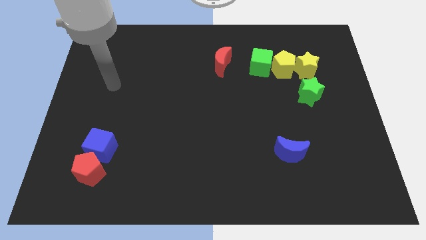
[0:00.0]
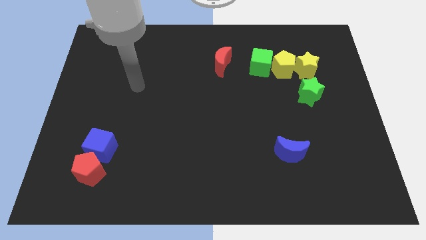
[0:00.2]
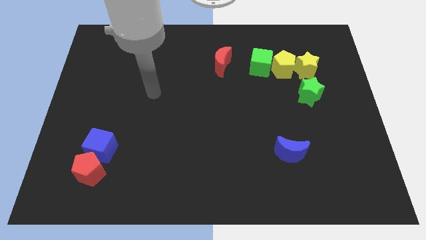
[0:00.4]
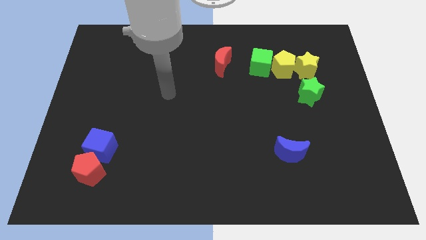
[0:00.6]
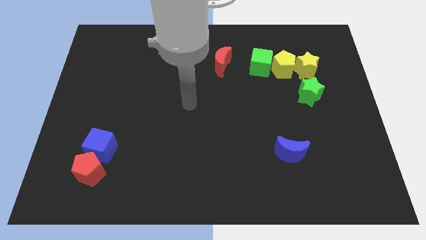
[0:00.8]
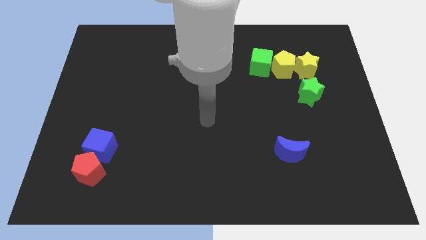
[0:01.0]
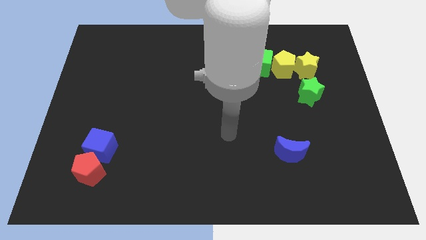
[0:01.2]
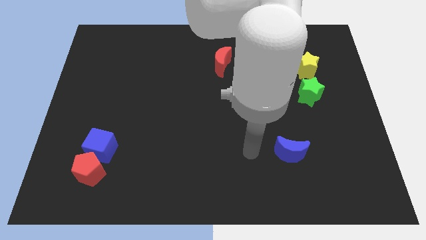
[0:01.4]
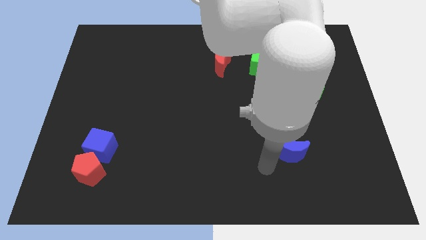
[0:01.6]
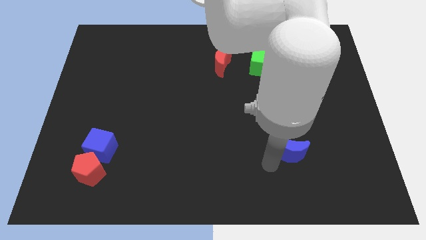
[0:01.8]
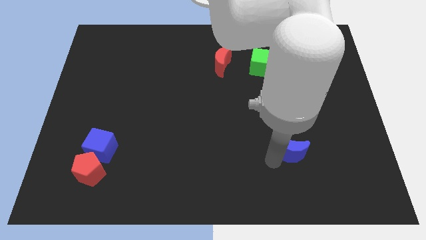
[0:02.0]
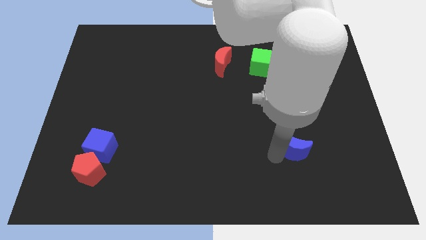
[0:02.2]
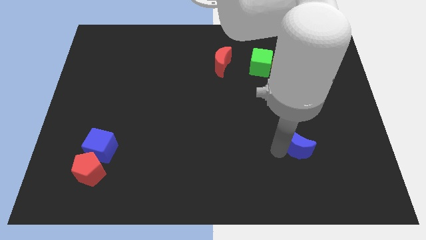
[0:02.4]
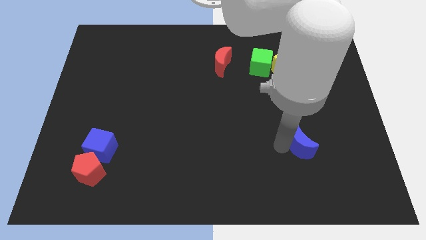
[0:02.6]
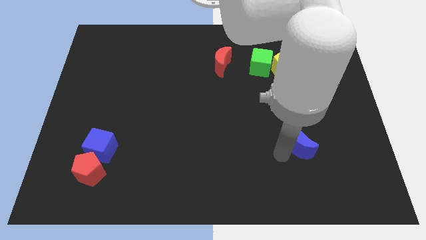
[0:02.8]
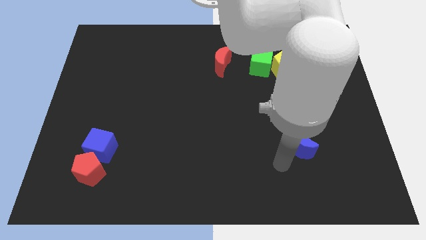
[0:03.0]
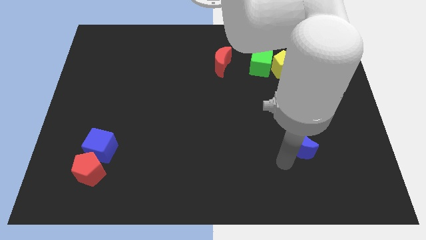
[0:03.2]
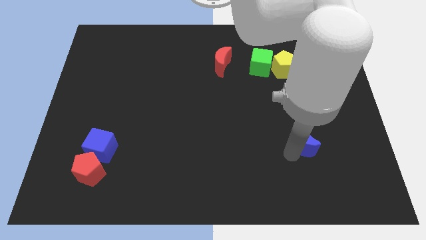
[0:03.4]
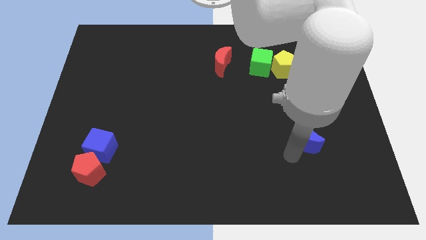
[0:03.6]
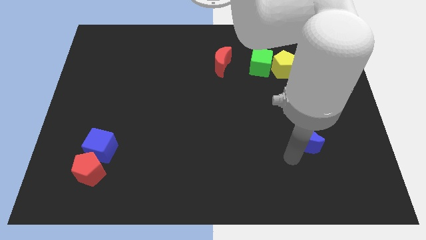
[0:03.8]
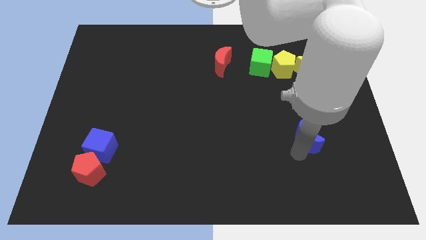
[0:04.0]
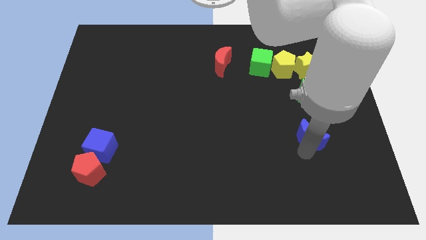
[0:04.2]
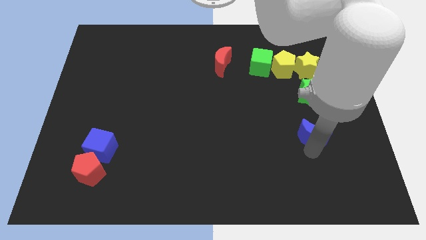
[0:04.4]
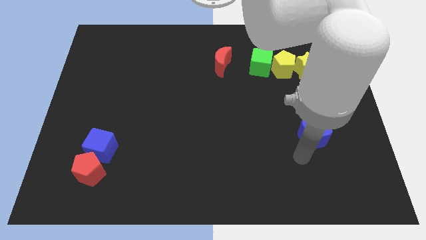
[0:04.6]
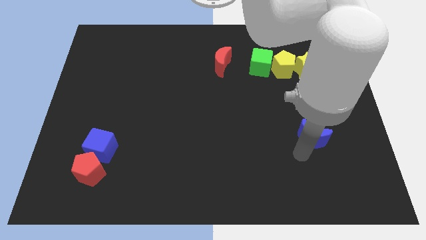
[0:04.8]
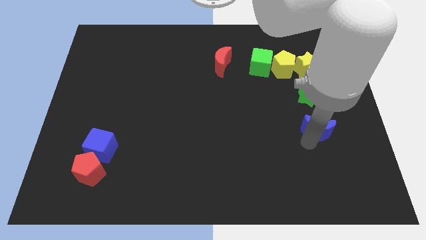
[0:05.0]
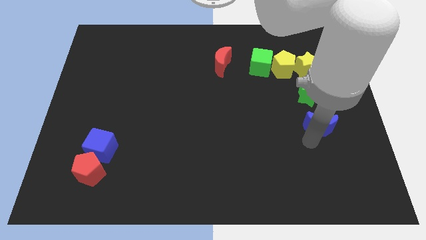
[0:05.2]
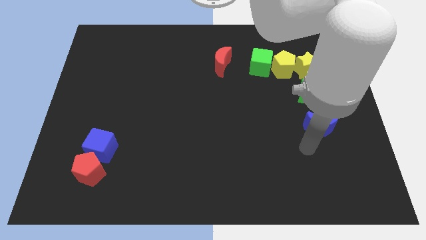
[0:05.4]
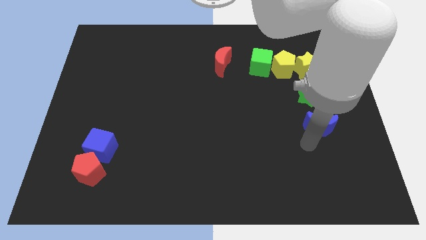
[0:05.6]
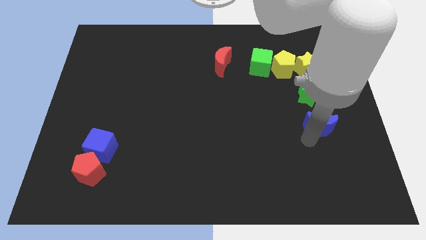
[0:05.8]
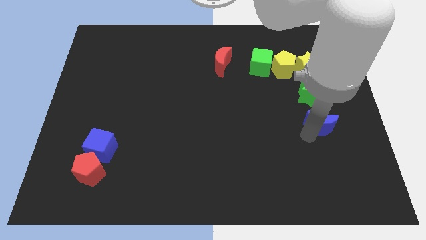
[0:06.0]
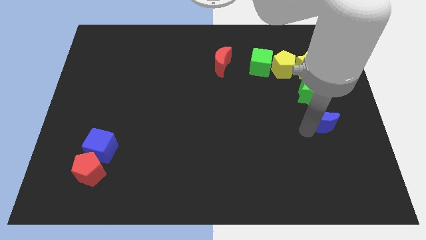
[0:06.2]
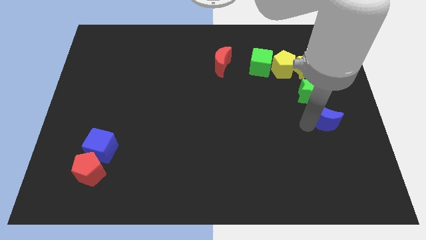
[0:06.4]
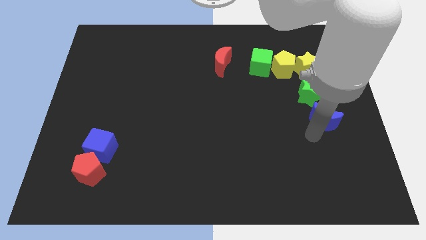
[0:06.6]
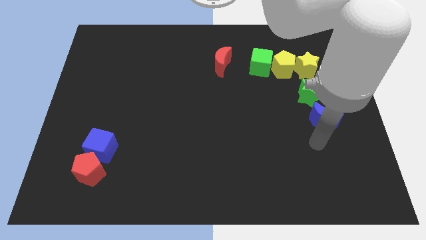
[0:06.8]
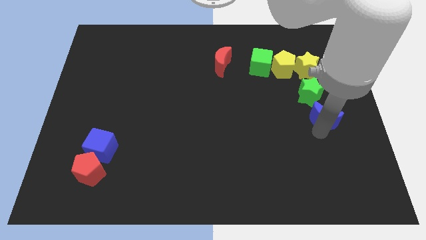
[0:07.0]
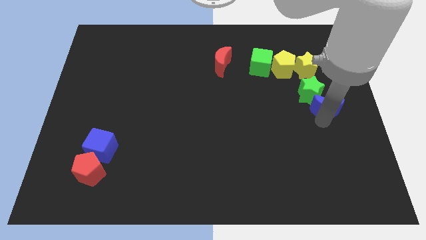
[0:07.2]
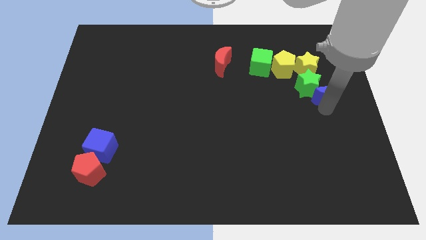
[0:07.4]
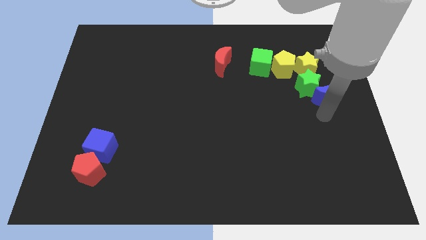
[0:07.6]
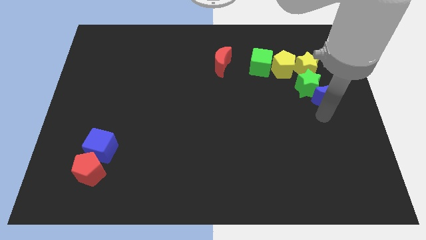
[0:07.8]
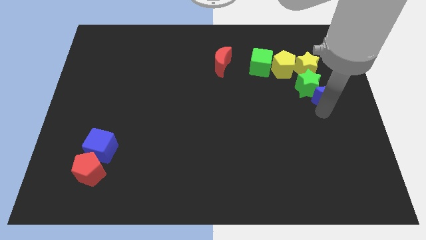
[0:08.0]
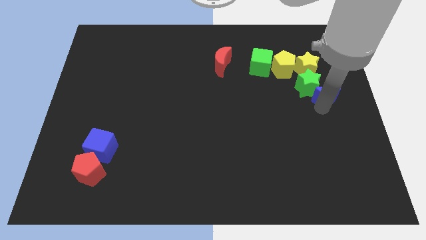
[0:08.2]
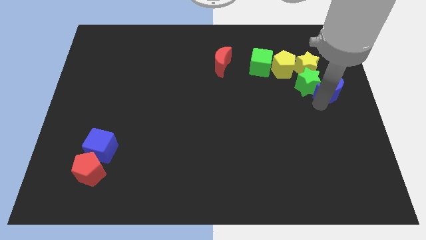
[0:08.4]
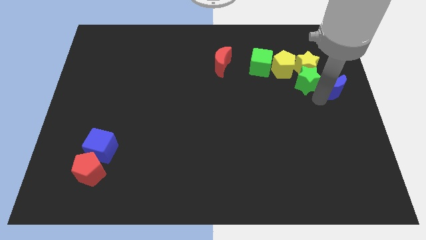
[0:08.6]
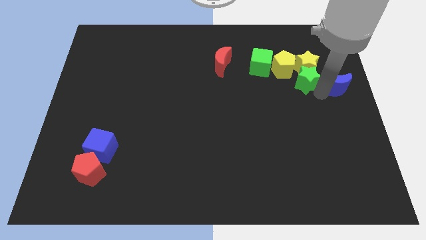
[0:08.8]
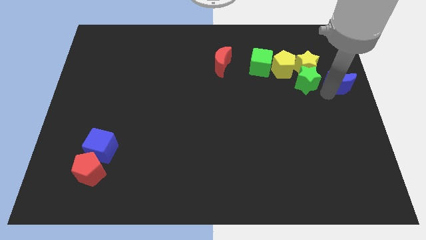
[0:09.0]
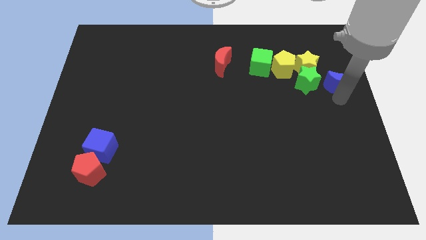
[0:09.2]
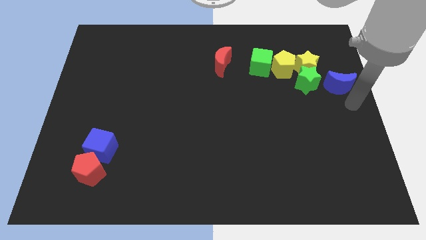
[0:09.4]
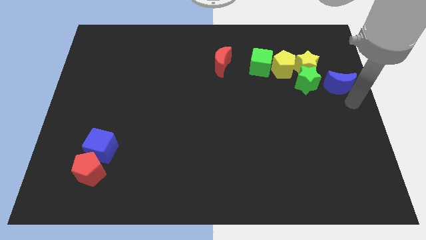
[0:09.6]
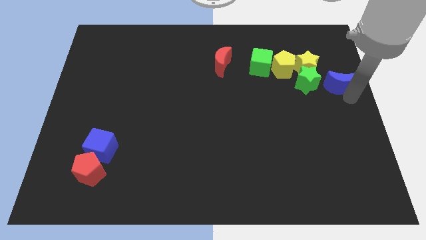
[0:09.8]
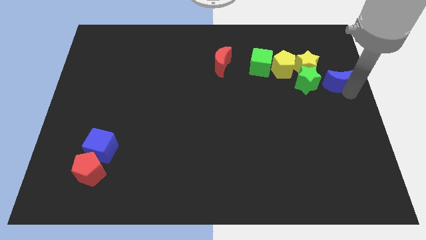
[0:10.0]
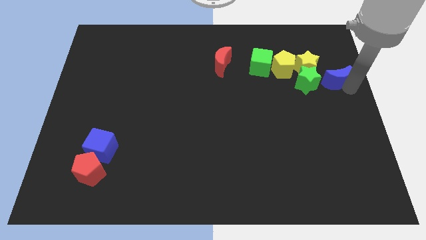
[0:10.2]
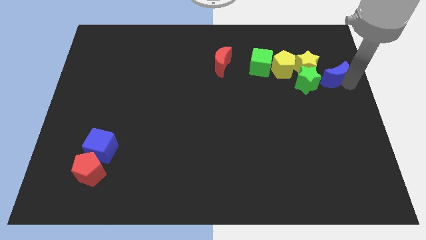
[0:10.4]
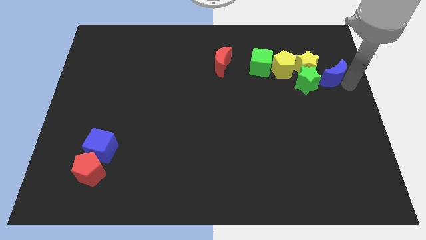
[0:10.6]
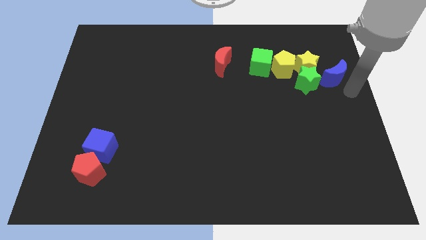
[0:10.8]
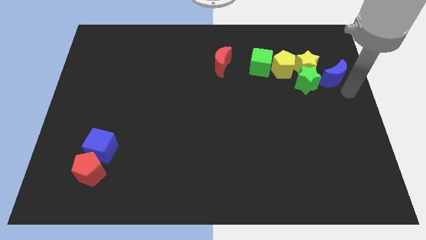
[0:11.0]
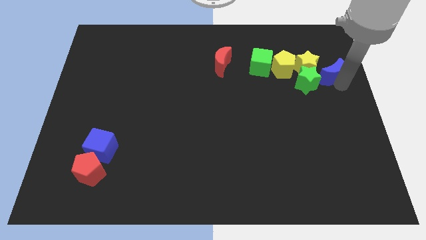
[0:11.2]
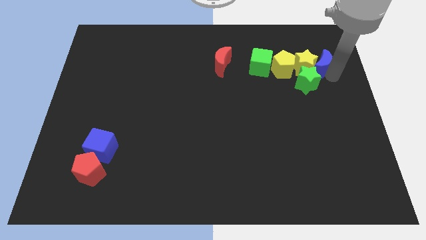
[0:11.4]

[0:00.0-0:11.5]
move the blue moon to the top of the green star
